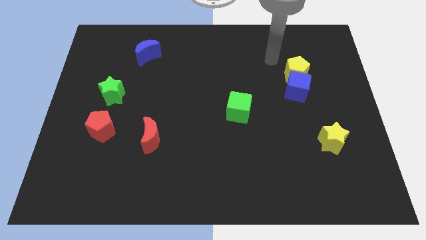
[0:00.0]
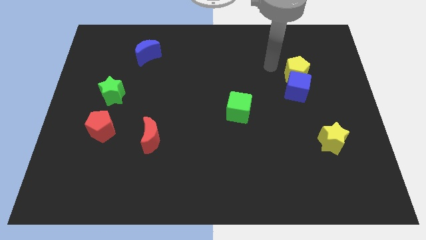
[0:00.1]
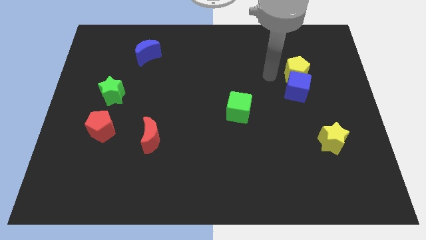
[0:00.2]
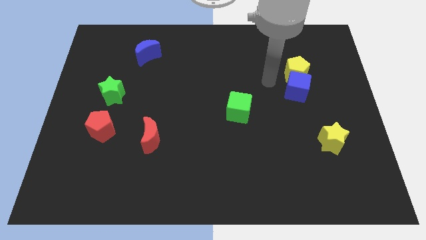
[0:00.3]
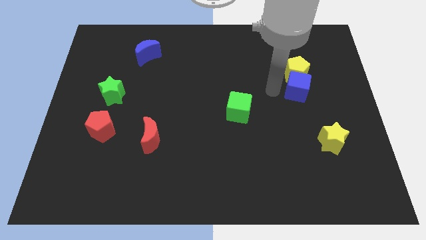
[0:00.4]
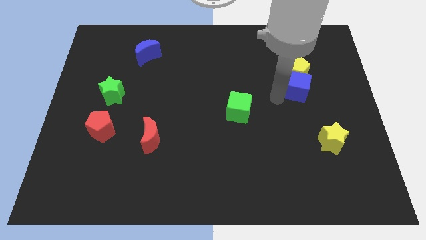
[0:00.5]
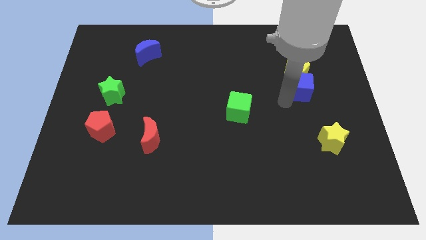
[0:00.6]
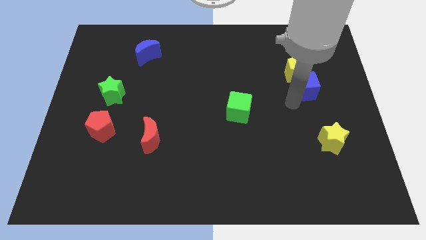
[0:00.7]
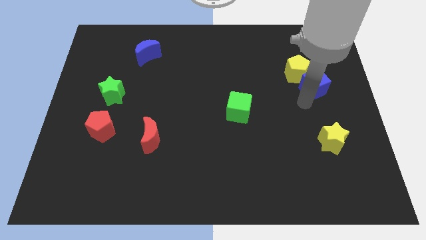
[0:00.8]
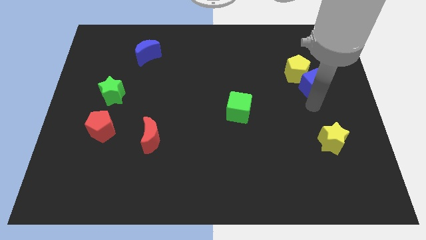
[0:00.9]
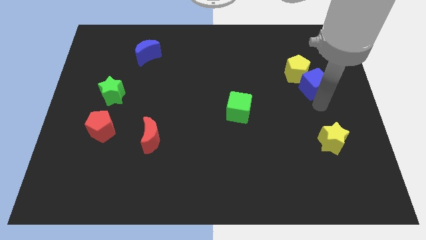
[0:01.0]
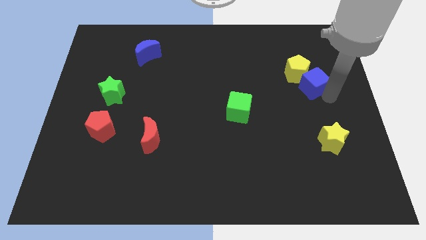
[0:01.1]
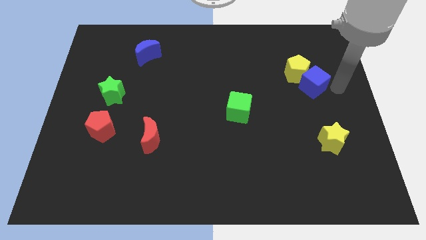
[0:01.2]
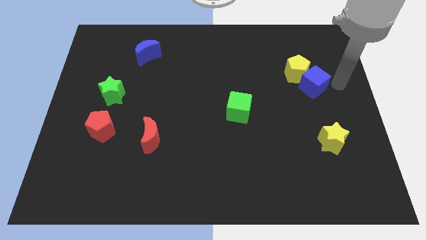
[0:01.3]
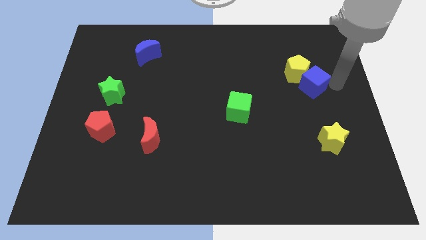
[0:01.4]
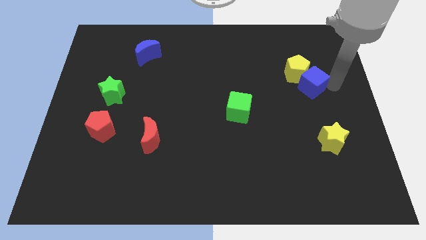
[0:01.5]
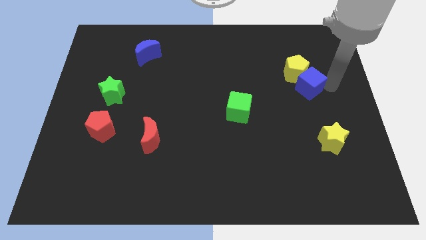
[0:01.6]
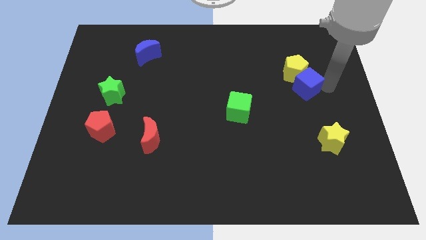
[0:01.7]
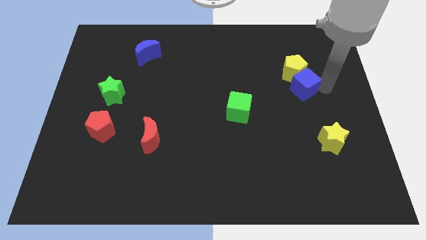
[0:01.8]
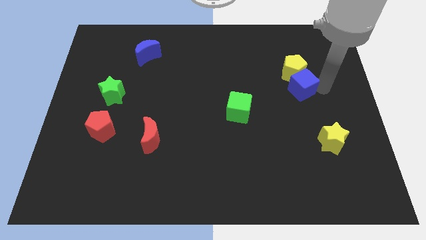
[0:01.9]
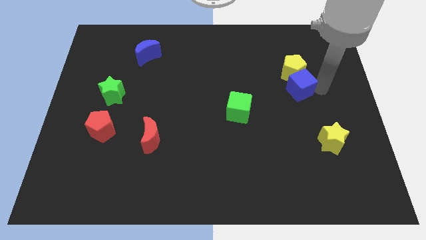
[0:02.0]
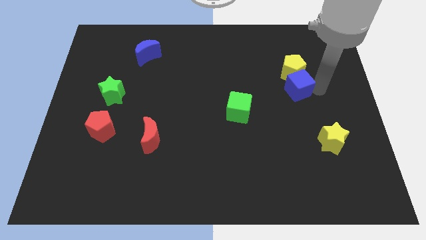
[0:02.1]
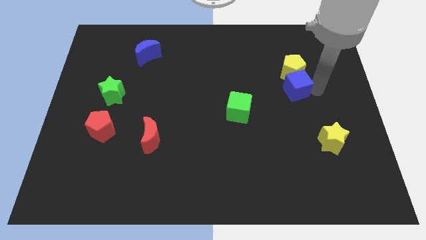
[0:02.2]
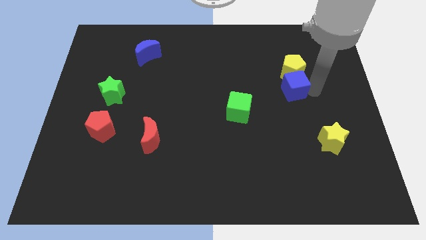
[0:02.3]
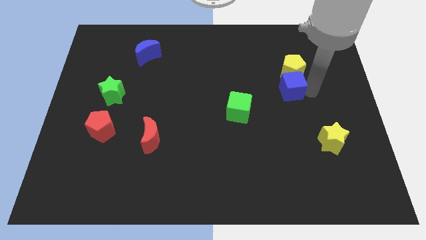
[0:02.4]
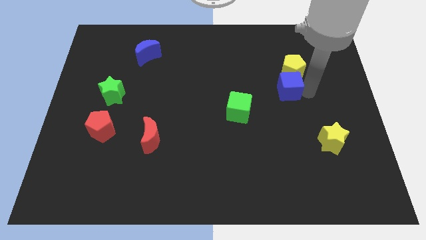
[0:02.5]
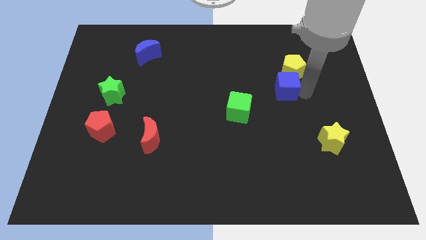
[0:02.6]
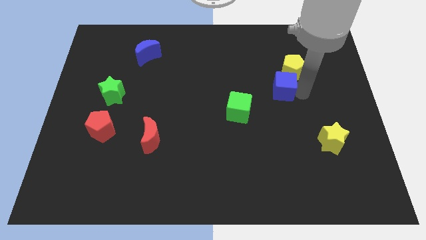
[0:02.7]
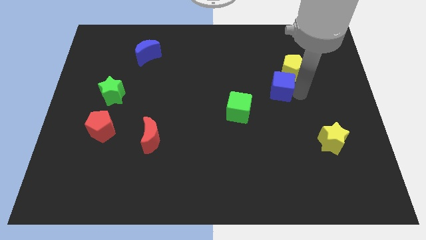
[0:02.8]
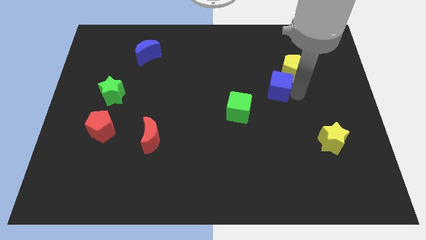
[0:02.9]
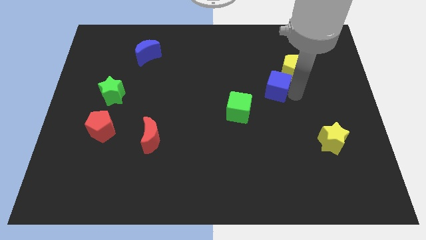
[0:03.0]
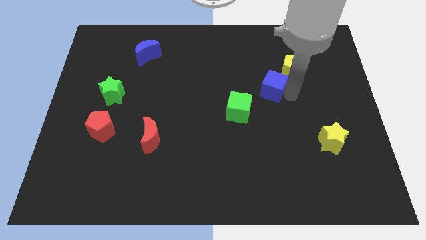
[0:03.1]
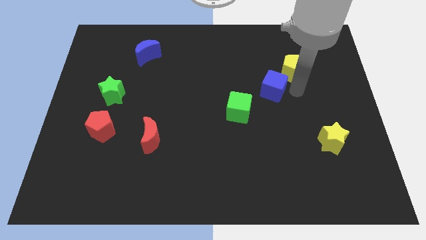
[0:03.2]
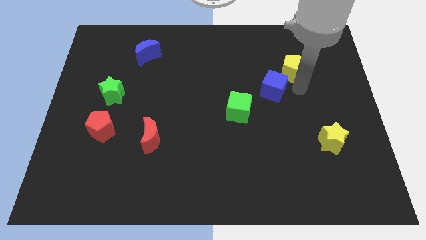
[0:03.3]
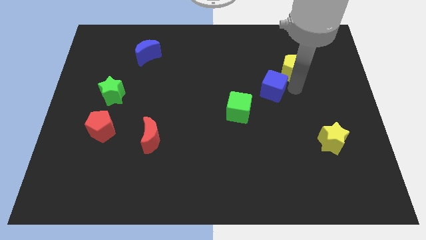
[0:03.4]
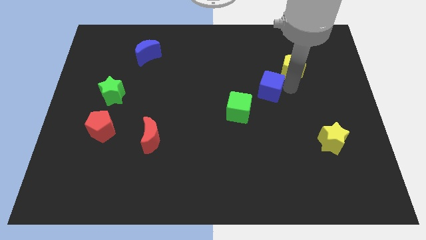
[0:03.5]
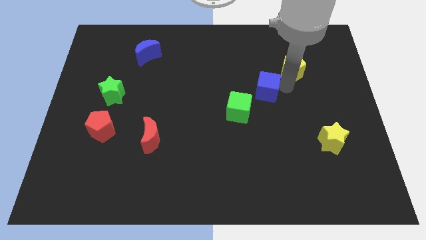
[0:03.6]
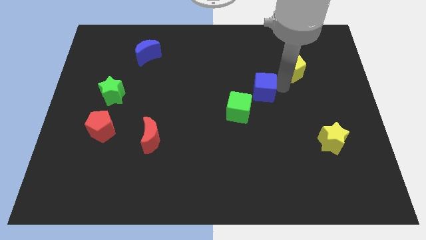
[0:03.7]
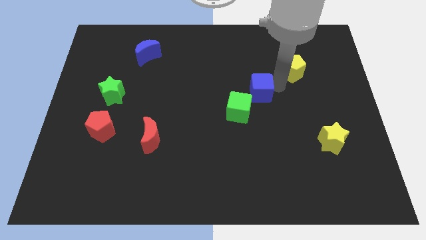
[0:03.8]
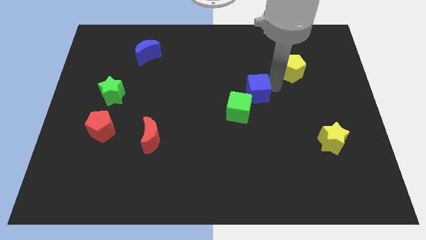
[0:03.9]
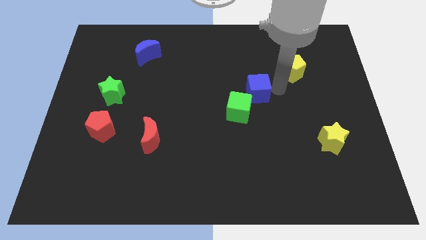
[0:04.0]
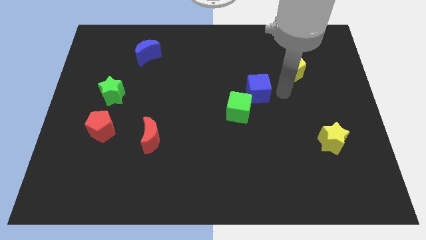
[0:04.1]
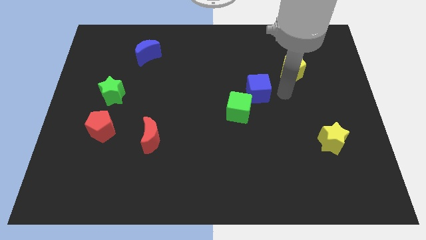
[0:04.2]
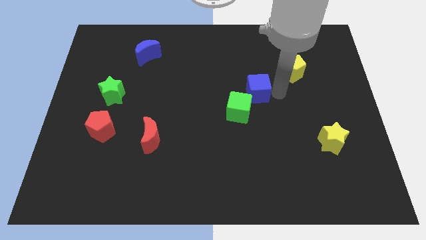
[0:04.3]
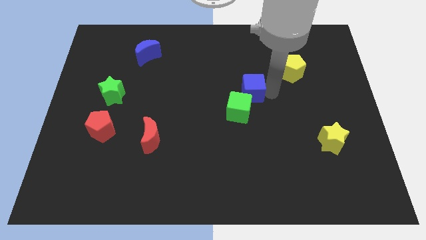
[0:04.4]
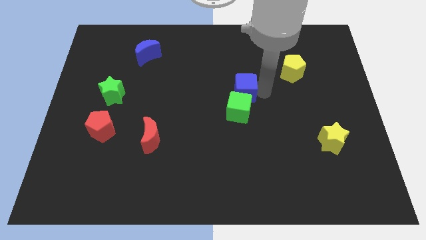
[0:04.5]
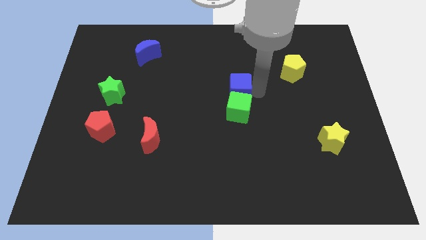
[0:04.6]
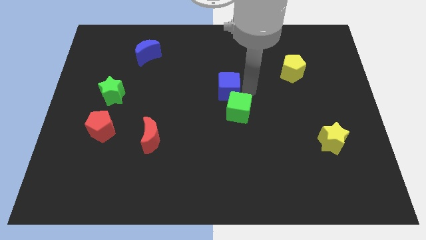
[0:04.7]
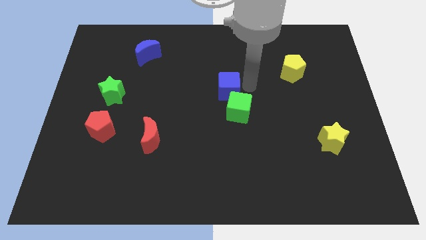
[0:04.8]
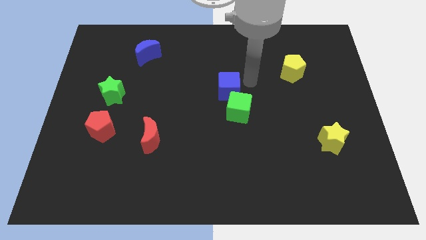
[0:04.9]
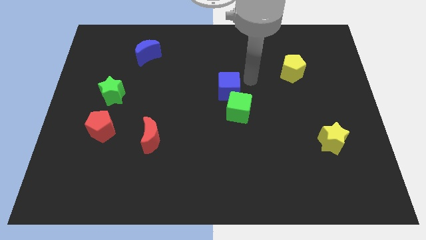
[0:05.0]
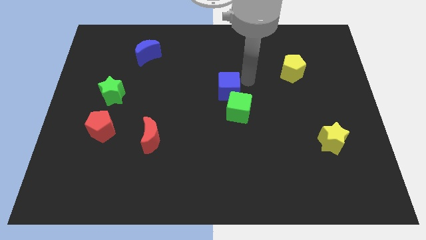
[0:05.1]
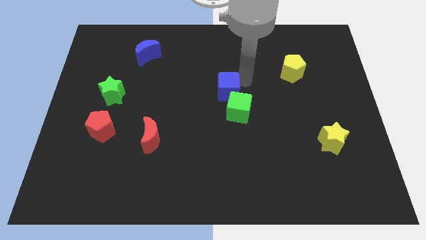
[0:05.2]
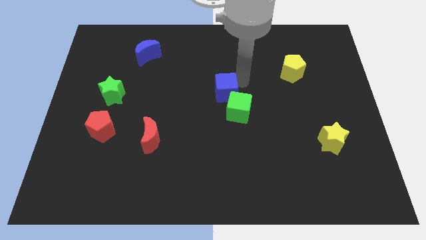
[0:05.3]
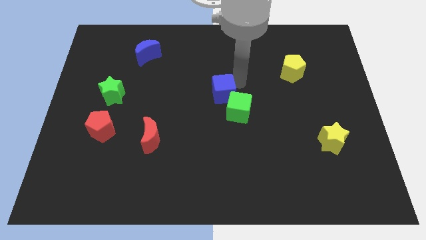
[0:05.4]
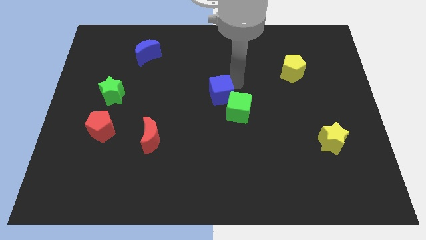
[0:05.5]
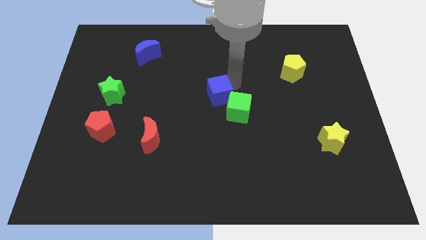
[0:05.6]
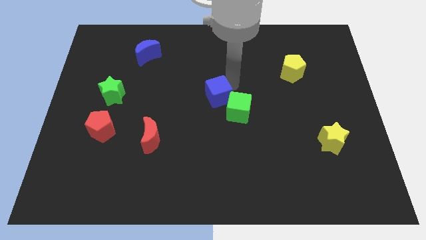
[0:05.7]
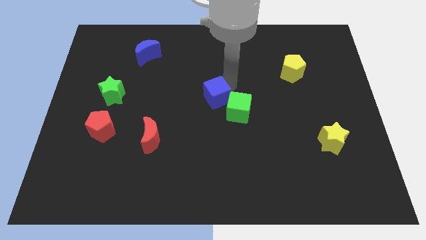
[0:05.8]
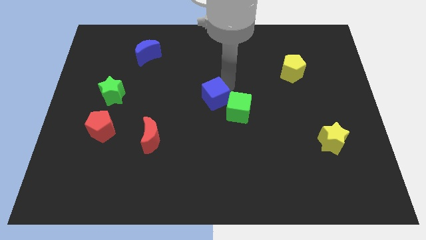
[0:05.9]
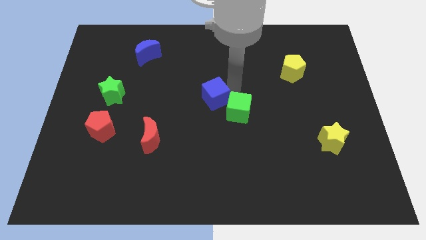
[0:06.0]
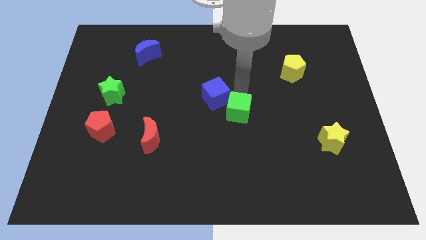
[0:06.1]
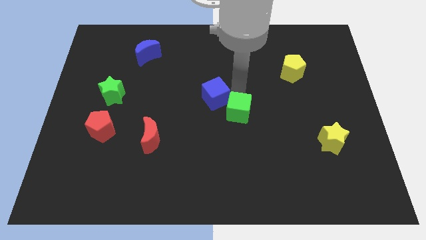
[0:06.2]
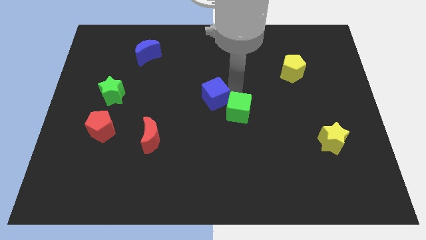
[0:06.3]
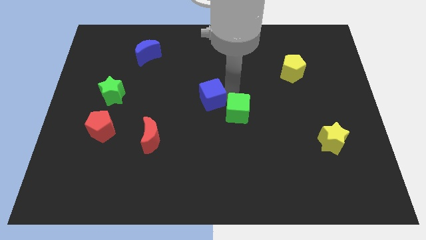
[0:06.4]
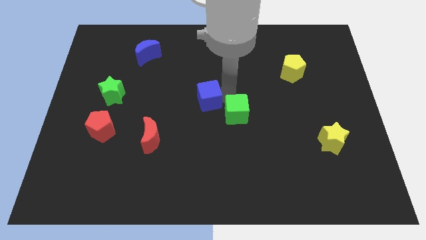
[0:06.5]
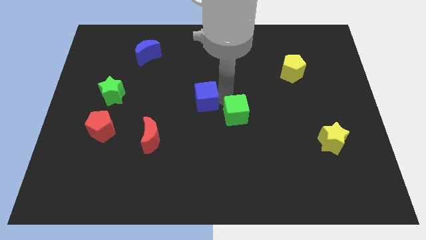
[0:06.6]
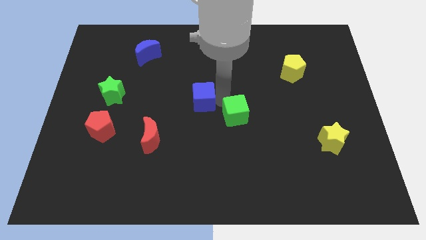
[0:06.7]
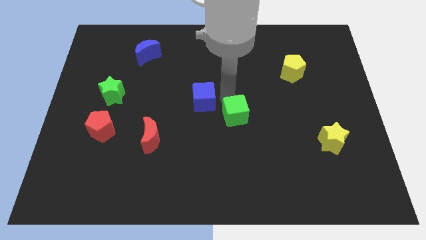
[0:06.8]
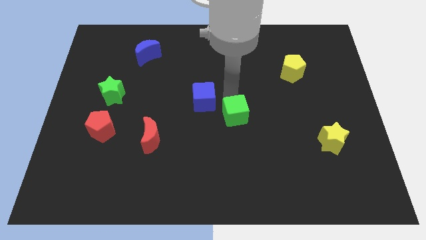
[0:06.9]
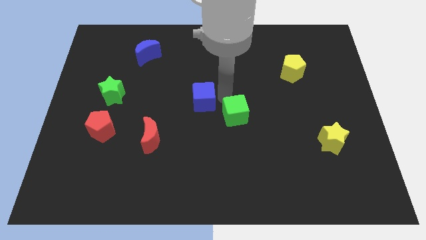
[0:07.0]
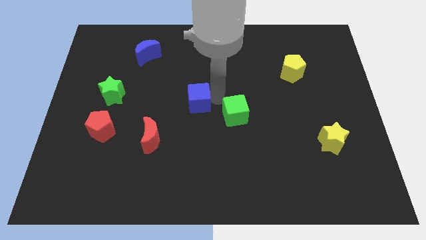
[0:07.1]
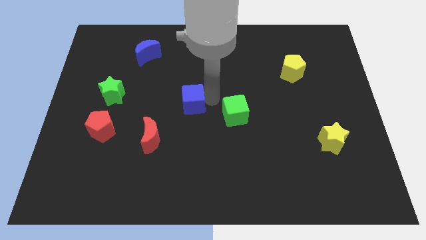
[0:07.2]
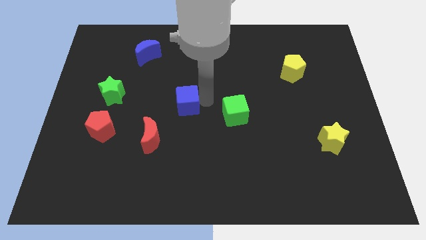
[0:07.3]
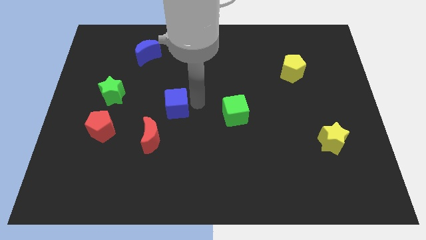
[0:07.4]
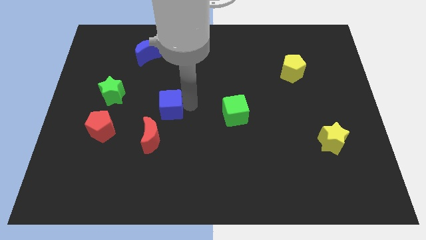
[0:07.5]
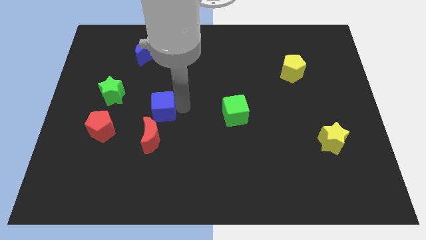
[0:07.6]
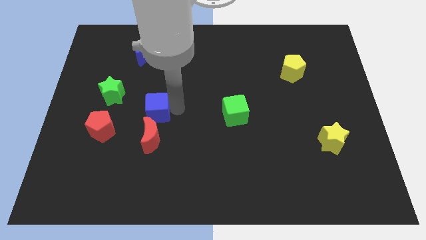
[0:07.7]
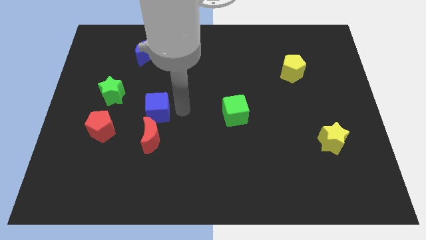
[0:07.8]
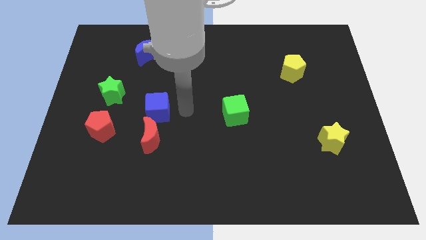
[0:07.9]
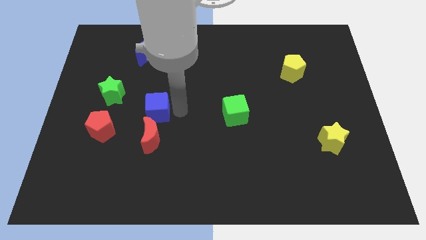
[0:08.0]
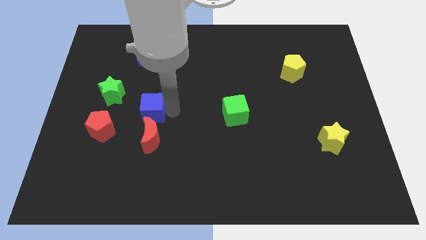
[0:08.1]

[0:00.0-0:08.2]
slide the blue cube to the bottom right of the green star
